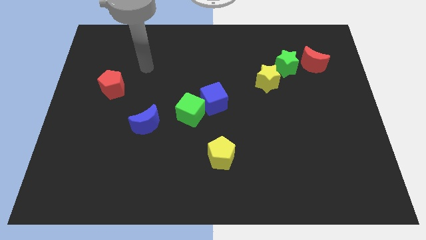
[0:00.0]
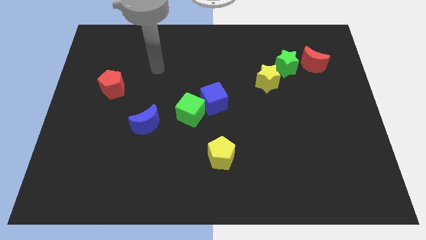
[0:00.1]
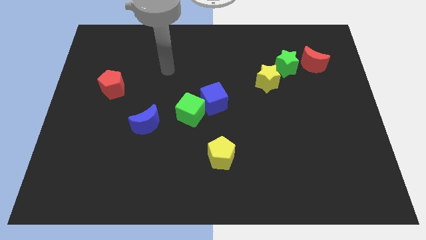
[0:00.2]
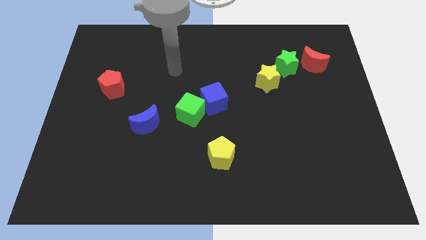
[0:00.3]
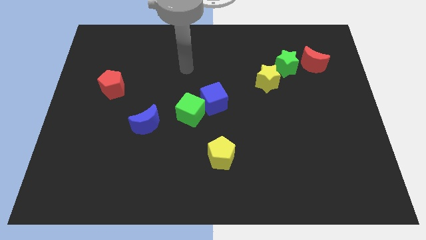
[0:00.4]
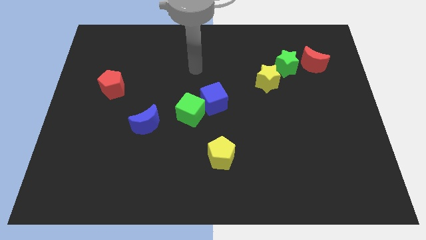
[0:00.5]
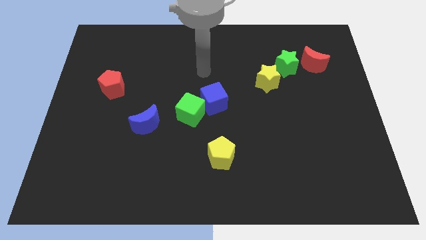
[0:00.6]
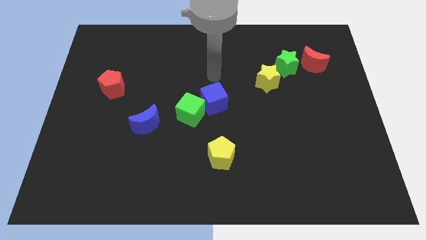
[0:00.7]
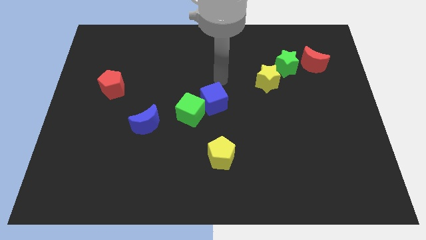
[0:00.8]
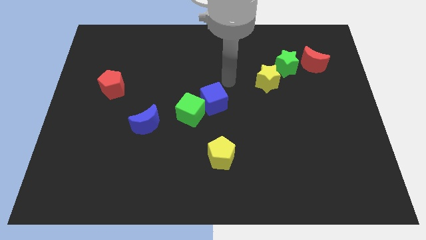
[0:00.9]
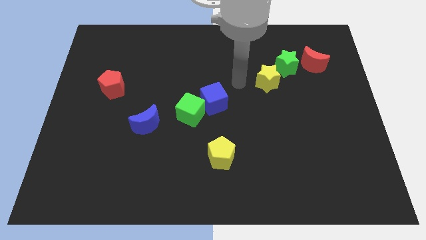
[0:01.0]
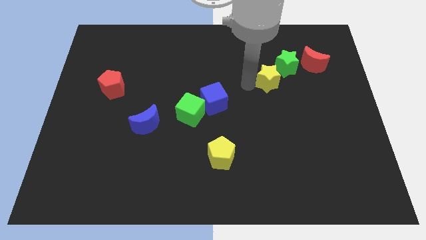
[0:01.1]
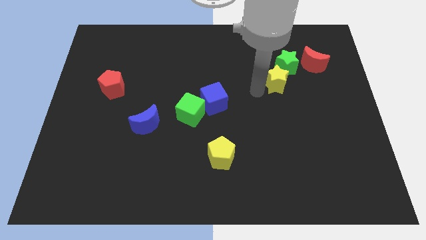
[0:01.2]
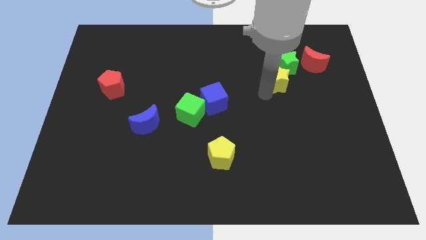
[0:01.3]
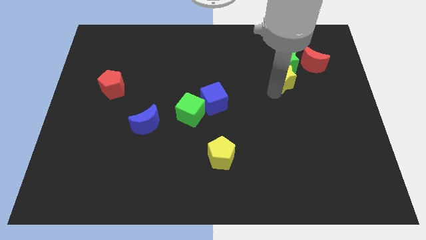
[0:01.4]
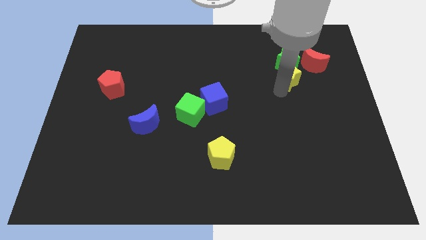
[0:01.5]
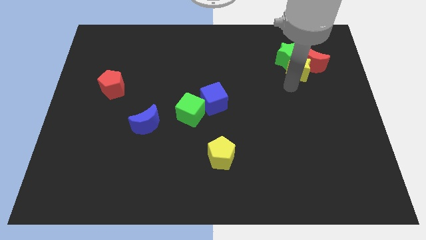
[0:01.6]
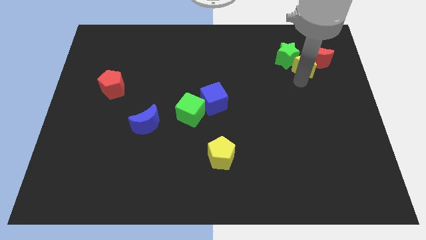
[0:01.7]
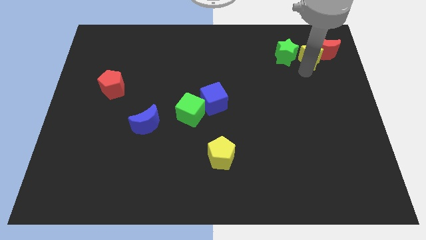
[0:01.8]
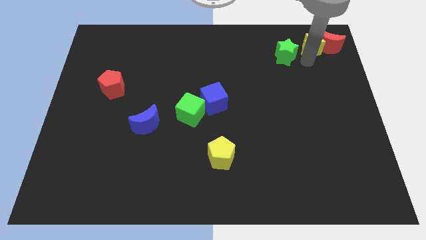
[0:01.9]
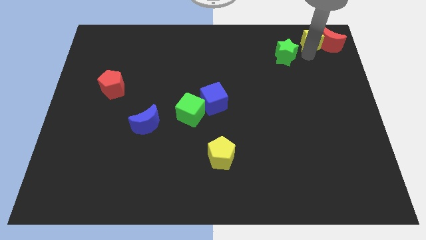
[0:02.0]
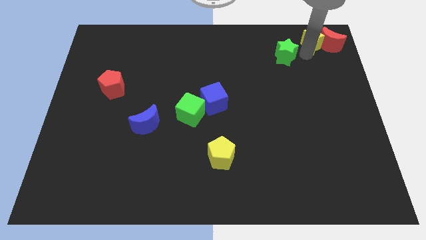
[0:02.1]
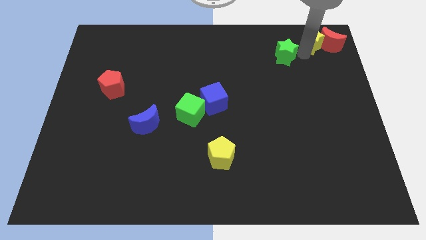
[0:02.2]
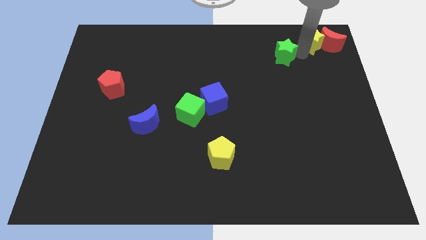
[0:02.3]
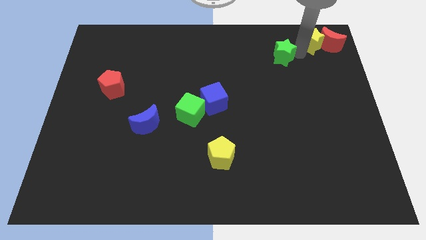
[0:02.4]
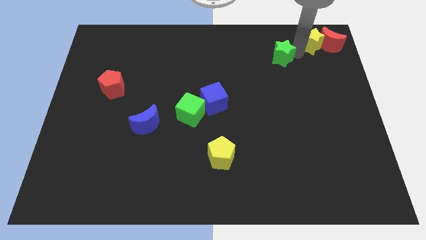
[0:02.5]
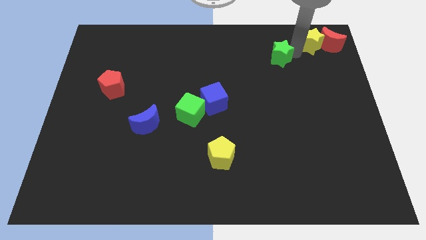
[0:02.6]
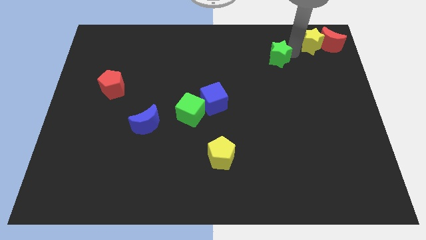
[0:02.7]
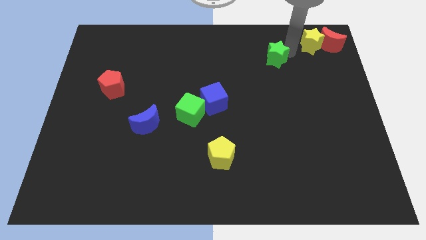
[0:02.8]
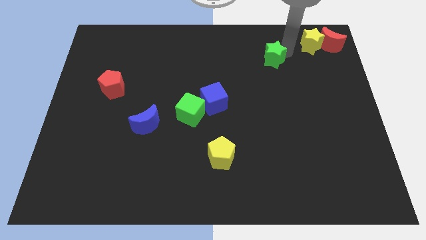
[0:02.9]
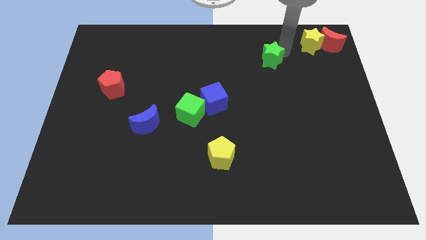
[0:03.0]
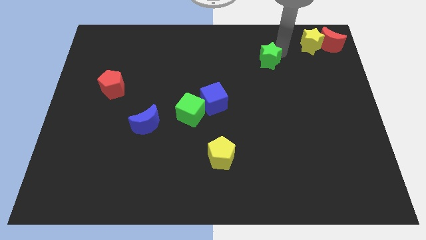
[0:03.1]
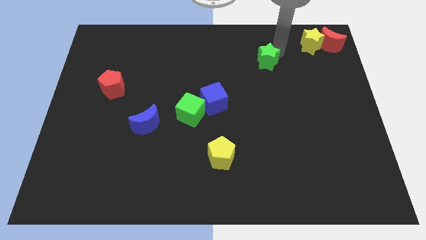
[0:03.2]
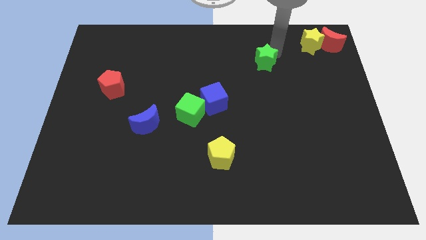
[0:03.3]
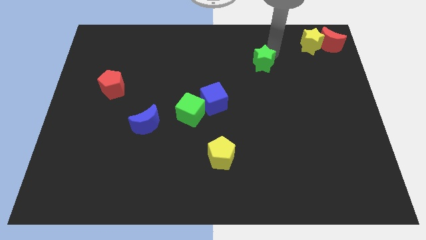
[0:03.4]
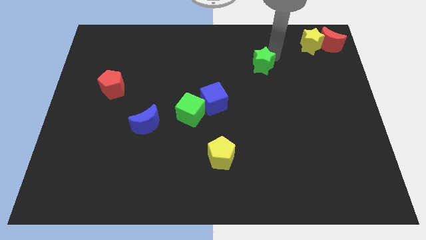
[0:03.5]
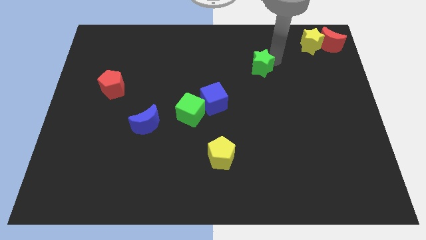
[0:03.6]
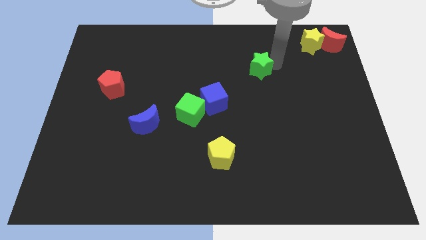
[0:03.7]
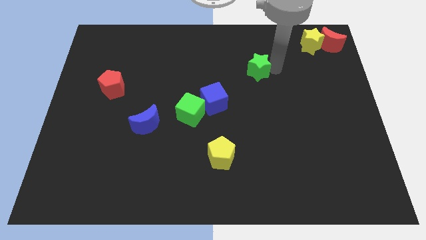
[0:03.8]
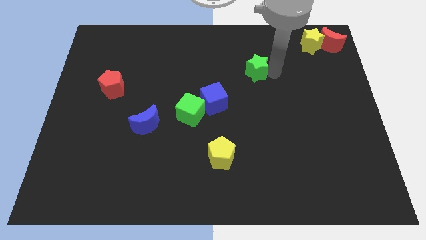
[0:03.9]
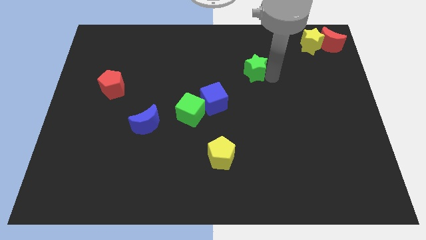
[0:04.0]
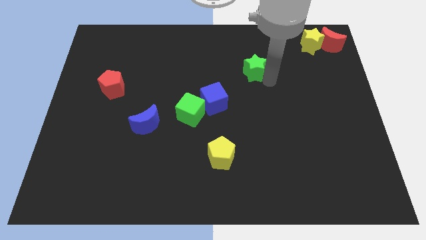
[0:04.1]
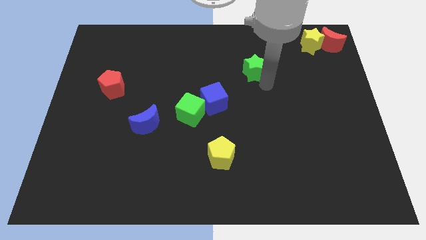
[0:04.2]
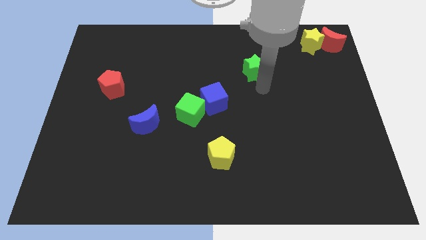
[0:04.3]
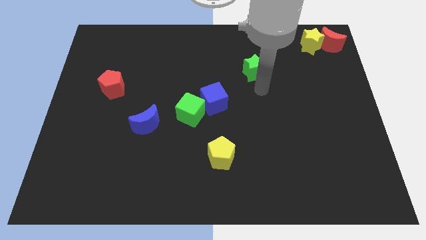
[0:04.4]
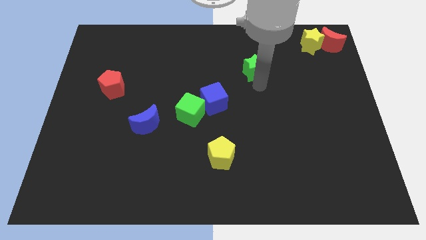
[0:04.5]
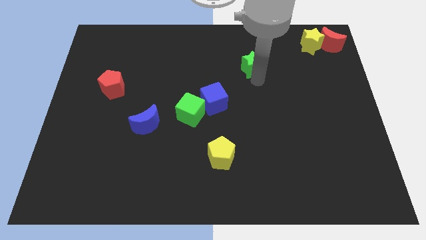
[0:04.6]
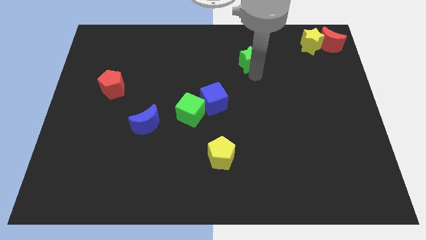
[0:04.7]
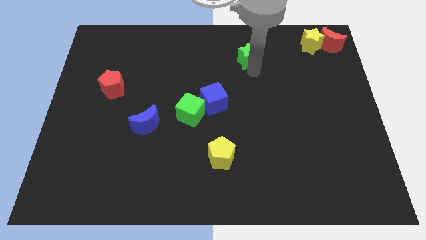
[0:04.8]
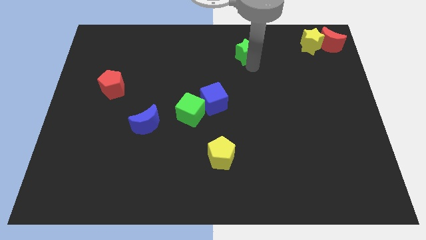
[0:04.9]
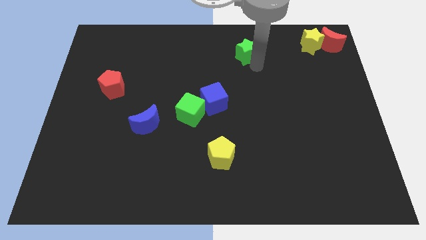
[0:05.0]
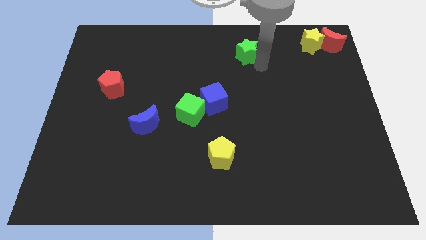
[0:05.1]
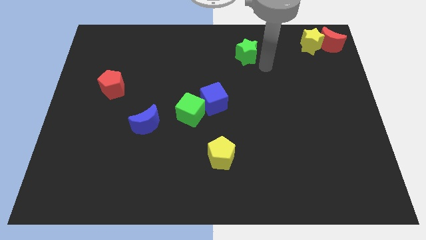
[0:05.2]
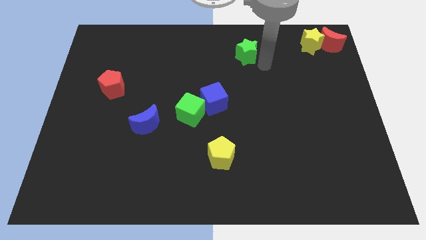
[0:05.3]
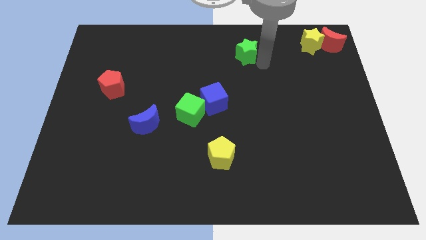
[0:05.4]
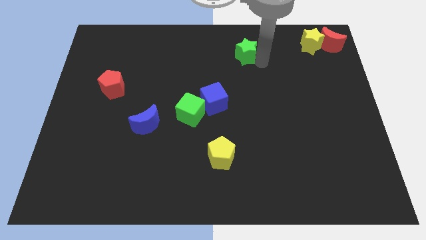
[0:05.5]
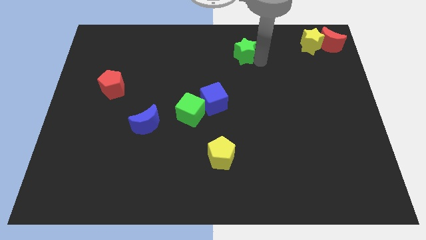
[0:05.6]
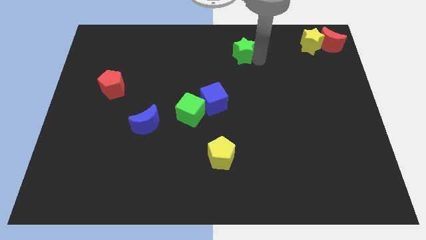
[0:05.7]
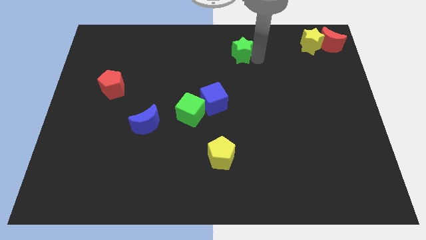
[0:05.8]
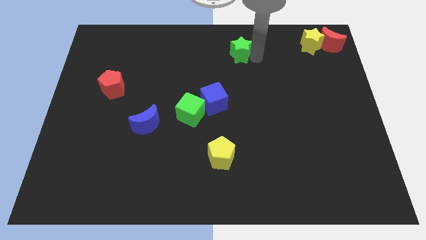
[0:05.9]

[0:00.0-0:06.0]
put the green star to the towards your base
